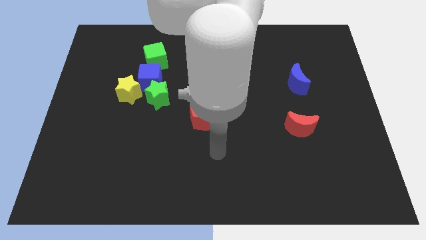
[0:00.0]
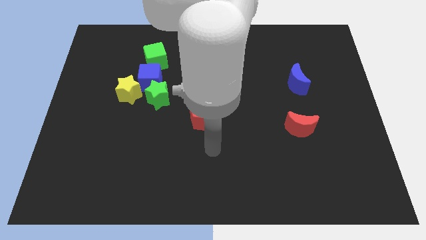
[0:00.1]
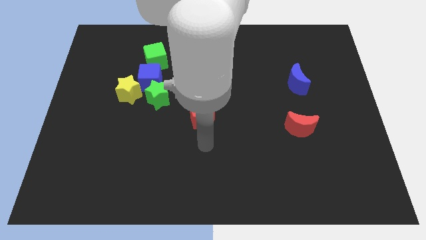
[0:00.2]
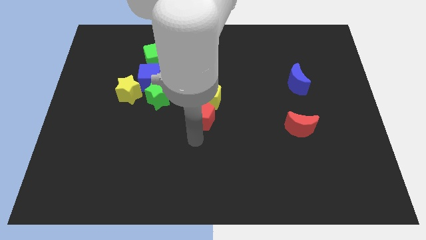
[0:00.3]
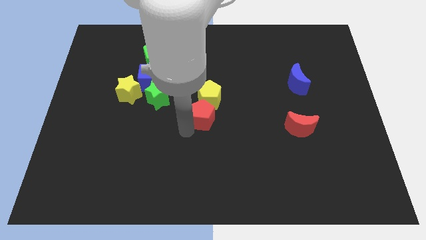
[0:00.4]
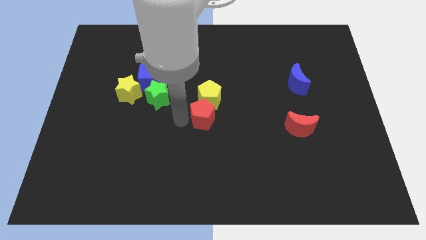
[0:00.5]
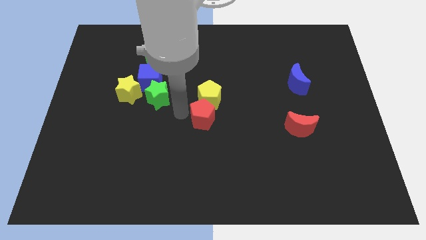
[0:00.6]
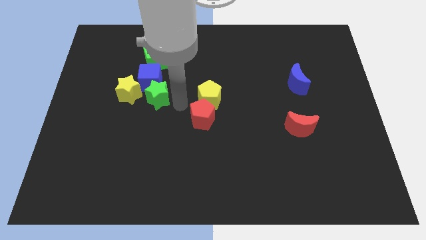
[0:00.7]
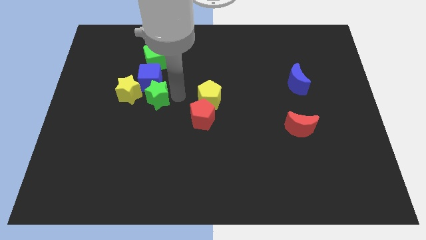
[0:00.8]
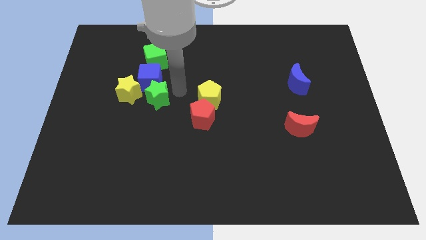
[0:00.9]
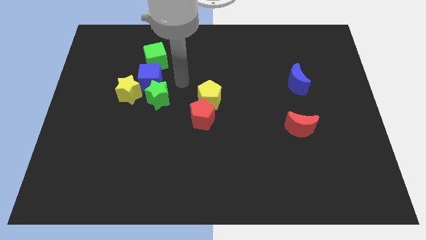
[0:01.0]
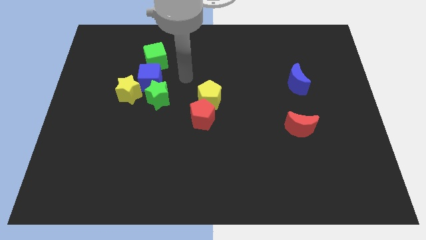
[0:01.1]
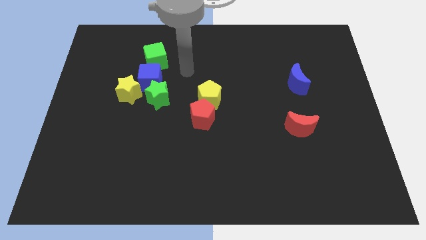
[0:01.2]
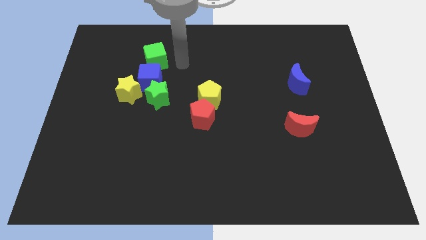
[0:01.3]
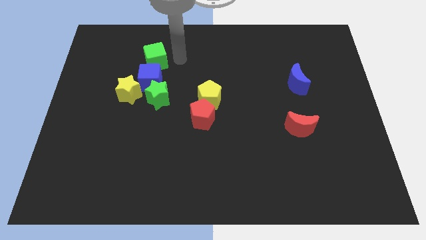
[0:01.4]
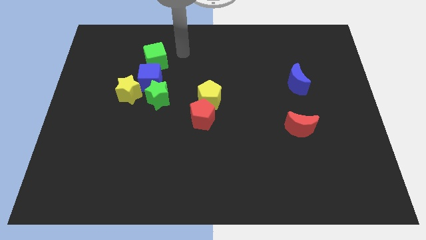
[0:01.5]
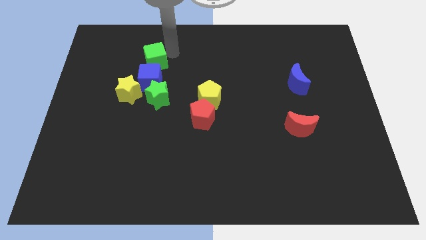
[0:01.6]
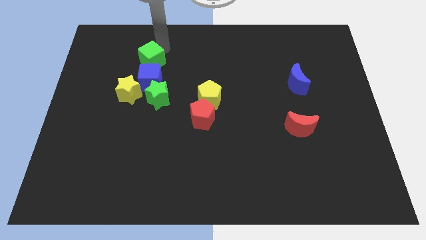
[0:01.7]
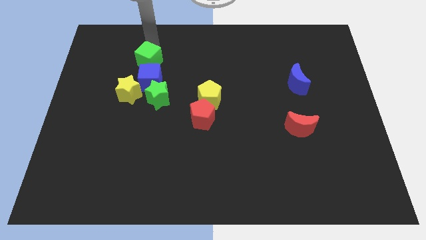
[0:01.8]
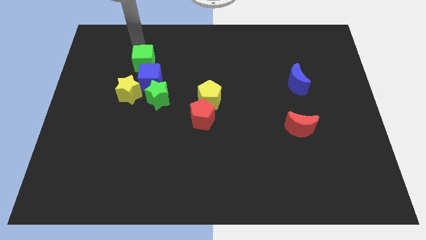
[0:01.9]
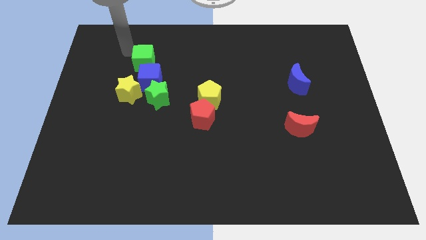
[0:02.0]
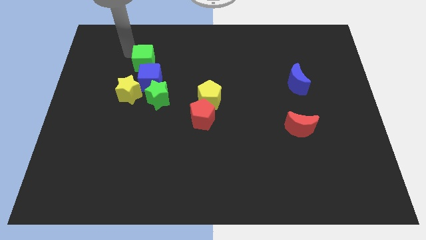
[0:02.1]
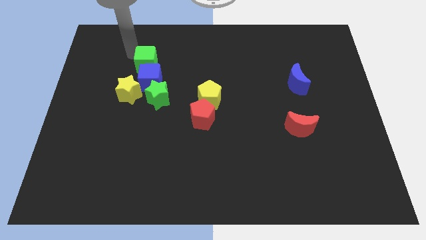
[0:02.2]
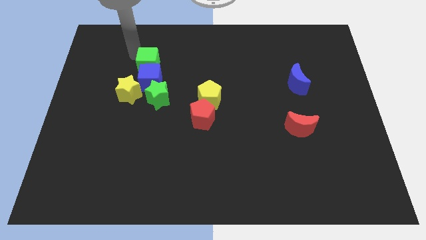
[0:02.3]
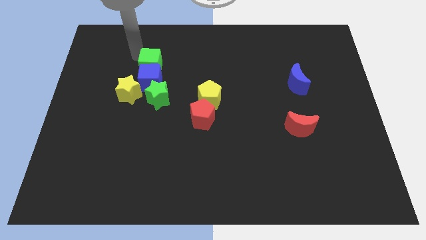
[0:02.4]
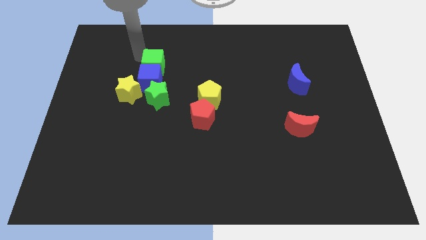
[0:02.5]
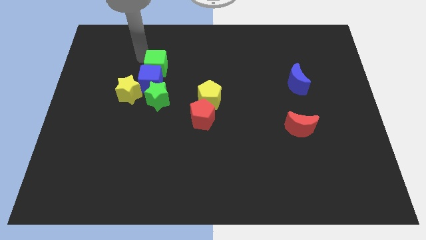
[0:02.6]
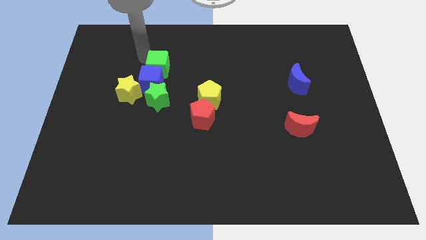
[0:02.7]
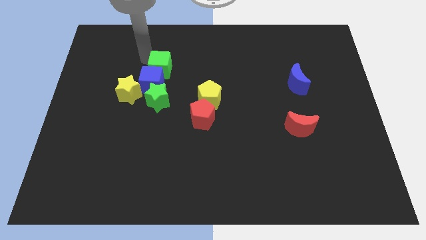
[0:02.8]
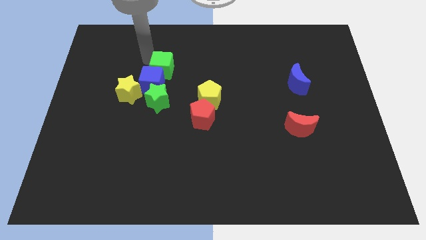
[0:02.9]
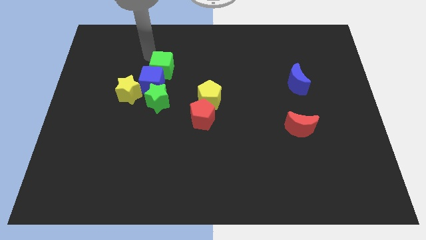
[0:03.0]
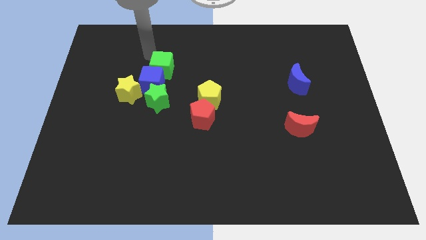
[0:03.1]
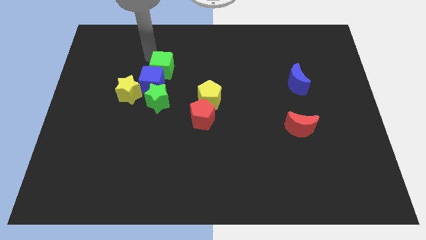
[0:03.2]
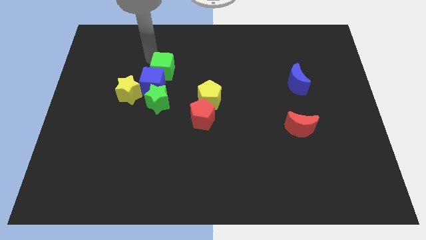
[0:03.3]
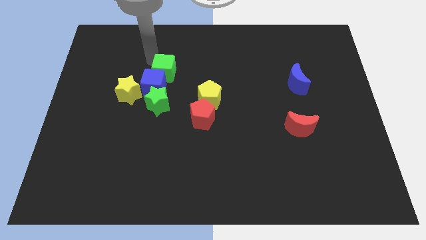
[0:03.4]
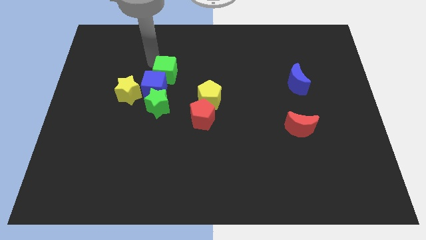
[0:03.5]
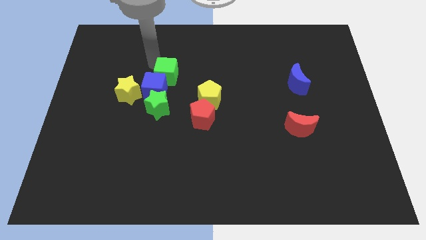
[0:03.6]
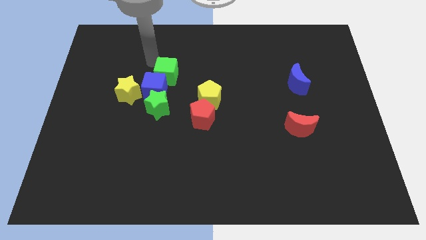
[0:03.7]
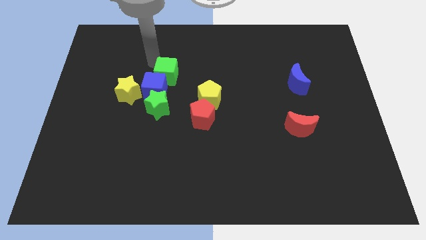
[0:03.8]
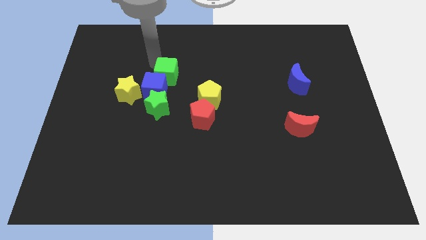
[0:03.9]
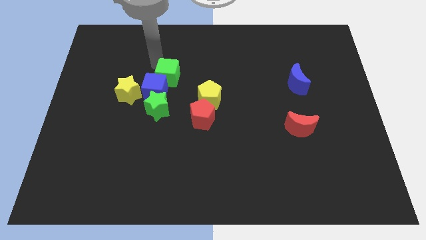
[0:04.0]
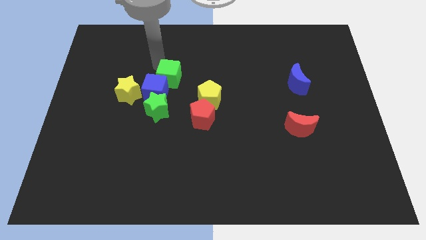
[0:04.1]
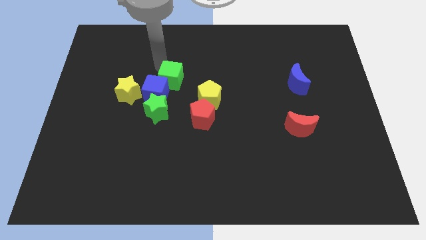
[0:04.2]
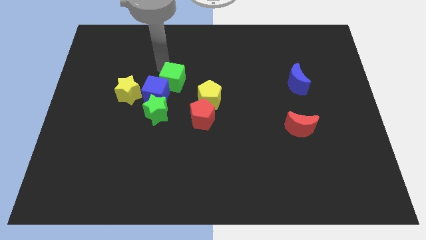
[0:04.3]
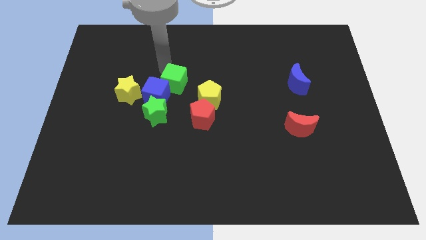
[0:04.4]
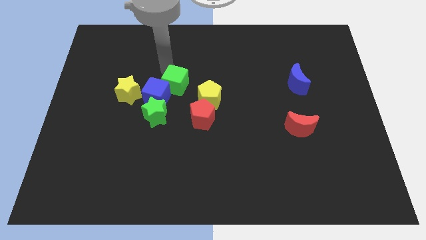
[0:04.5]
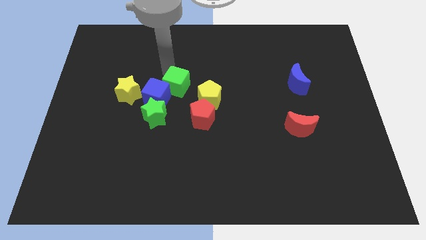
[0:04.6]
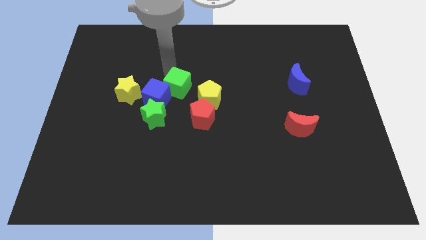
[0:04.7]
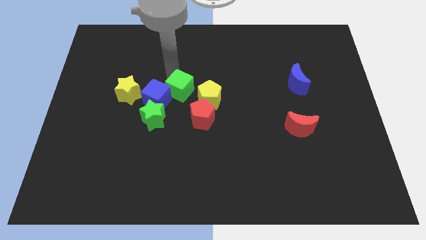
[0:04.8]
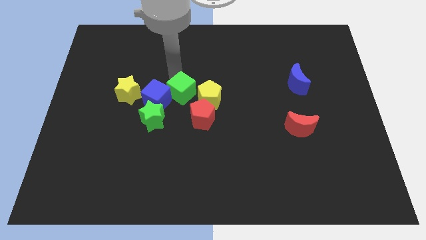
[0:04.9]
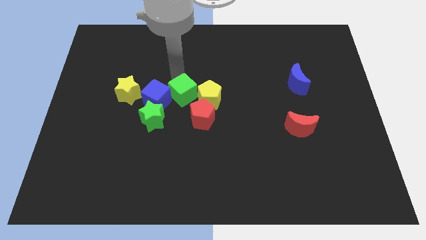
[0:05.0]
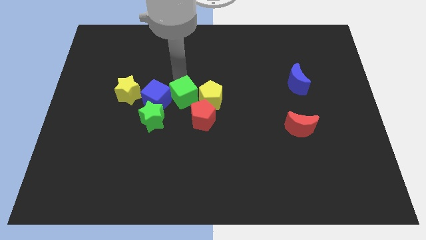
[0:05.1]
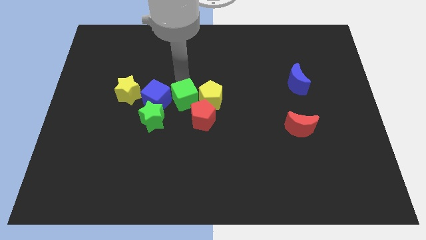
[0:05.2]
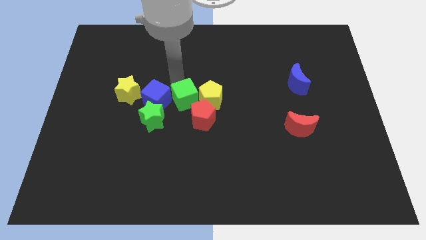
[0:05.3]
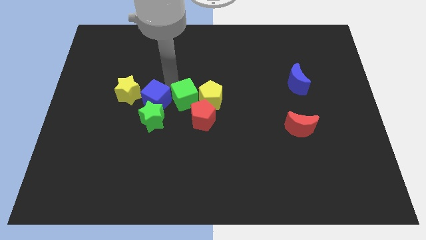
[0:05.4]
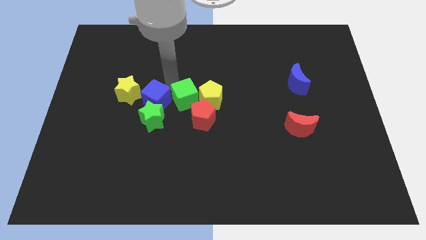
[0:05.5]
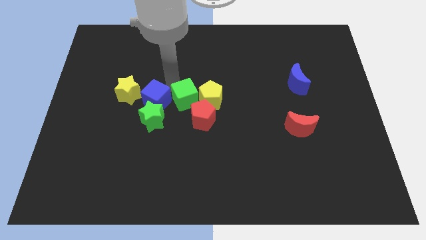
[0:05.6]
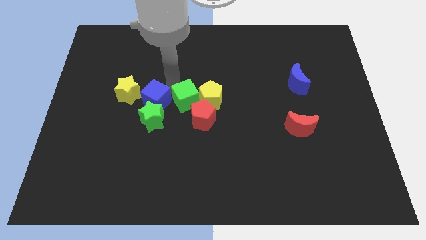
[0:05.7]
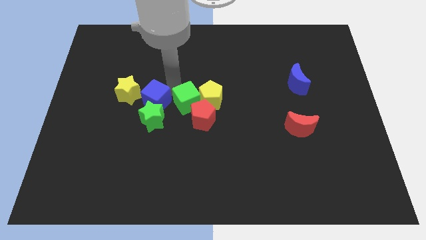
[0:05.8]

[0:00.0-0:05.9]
put the green cube next to the red pentagon
